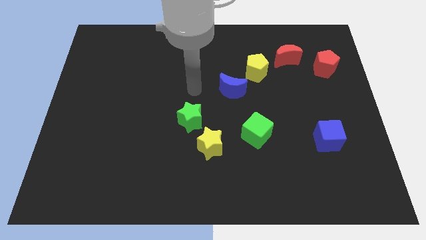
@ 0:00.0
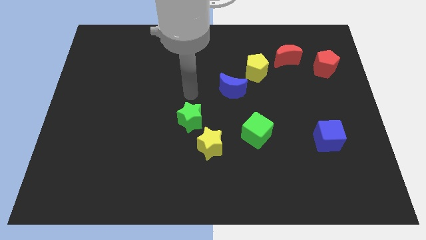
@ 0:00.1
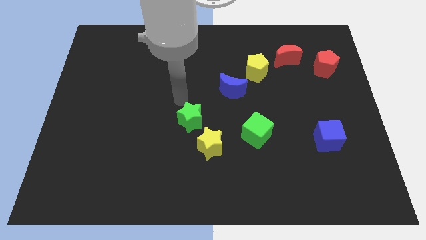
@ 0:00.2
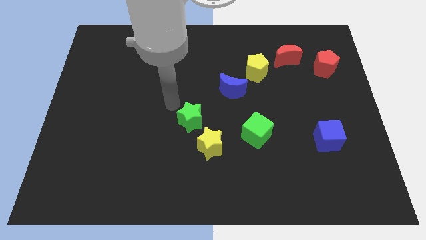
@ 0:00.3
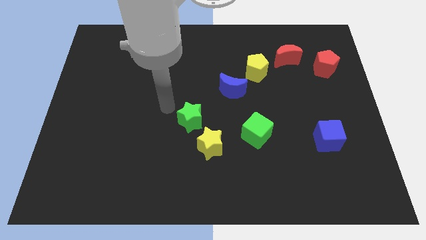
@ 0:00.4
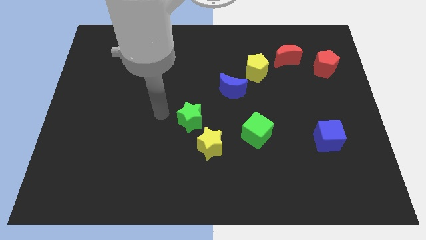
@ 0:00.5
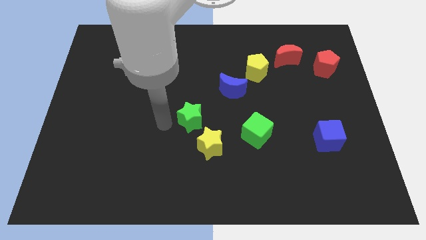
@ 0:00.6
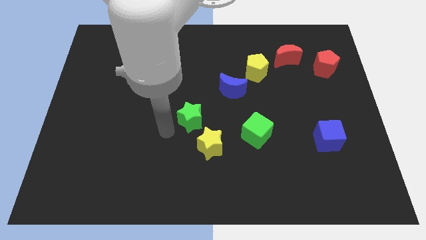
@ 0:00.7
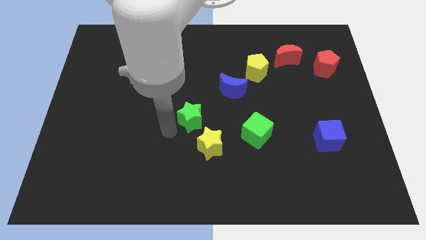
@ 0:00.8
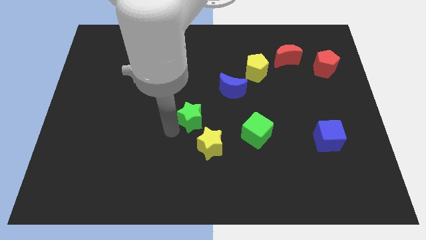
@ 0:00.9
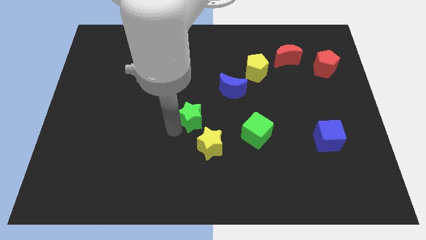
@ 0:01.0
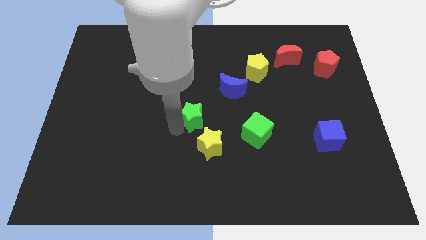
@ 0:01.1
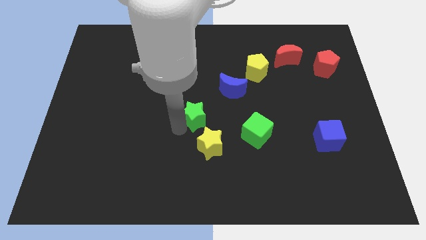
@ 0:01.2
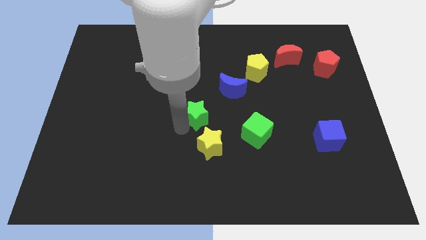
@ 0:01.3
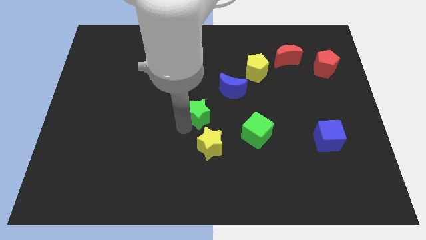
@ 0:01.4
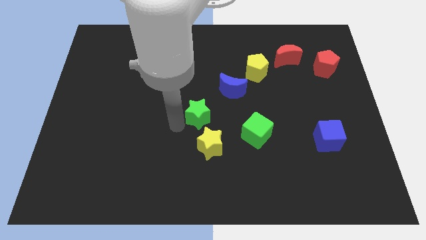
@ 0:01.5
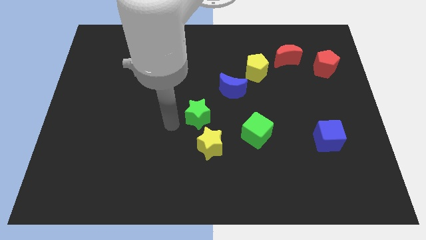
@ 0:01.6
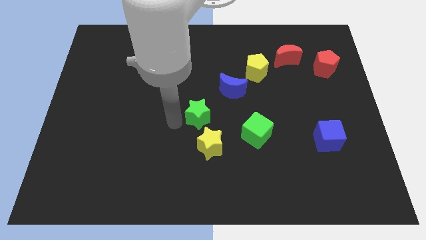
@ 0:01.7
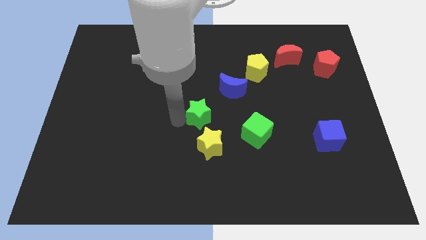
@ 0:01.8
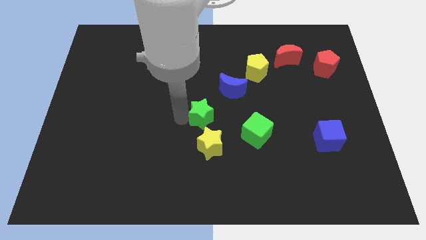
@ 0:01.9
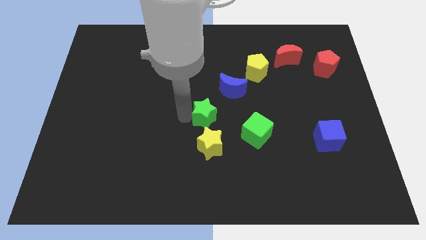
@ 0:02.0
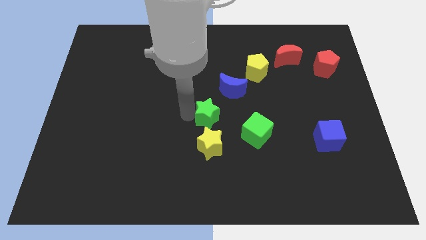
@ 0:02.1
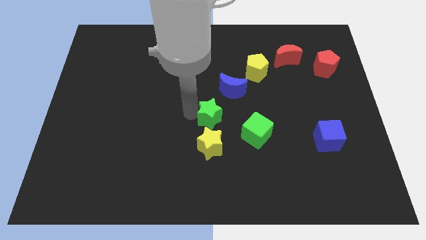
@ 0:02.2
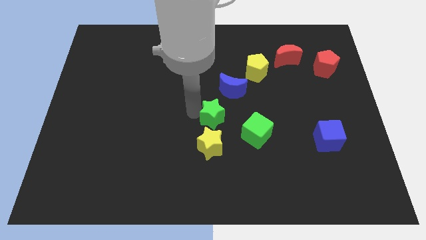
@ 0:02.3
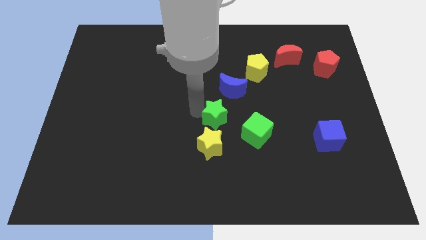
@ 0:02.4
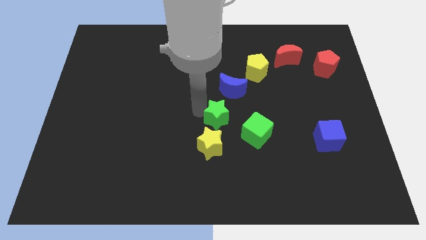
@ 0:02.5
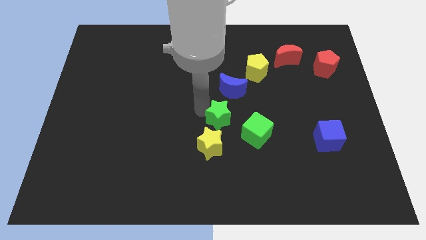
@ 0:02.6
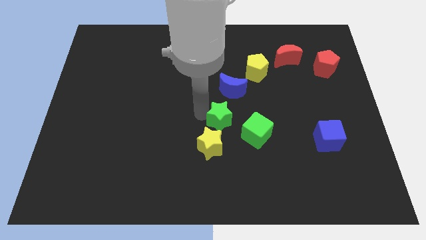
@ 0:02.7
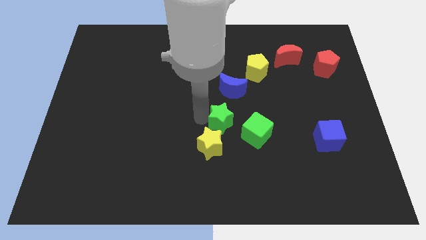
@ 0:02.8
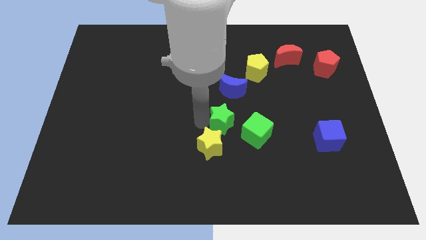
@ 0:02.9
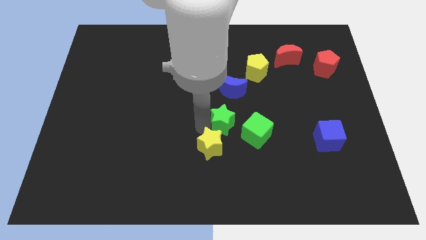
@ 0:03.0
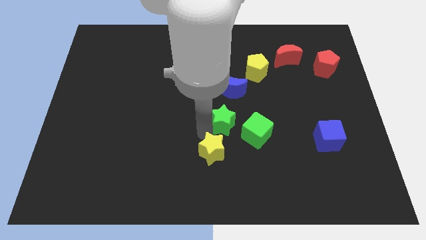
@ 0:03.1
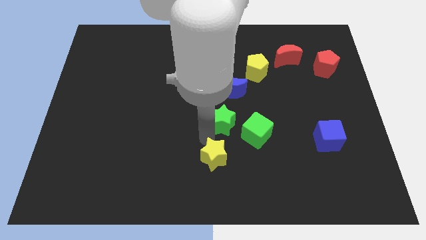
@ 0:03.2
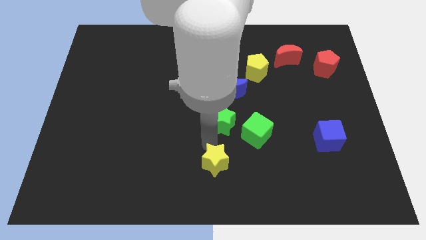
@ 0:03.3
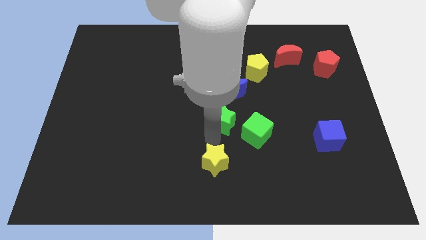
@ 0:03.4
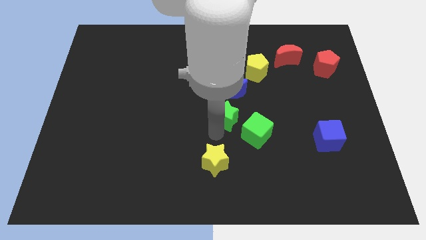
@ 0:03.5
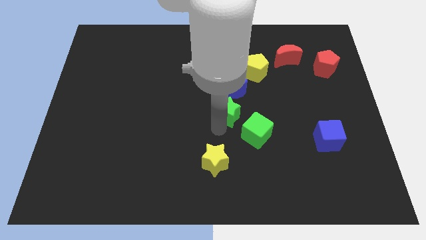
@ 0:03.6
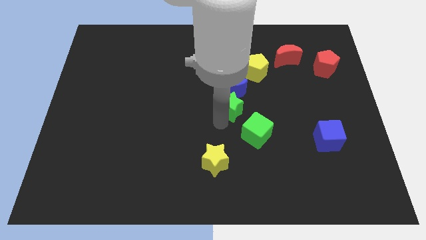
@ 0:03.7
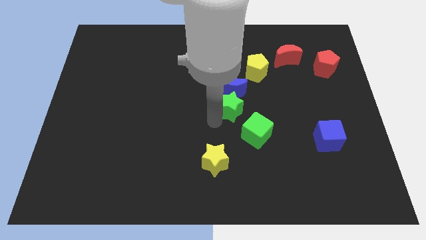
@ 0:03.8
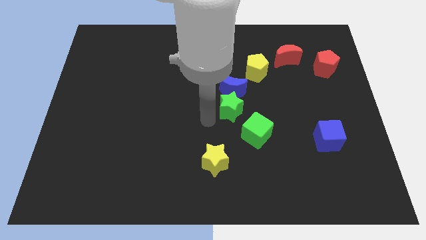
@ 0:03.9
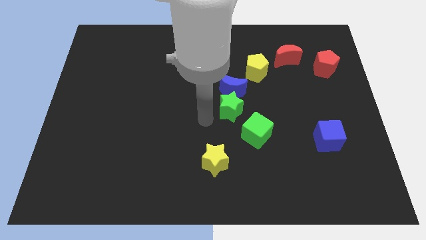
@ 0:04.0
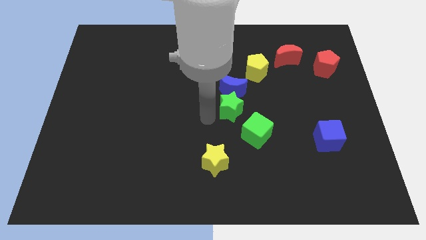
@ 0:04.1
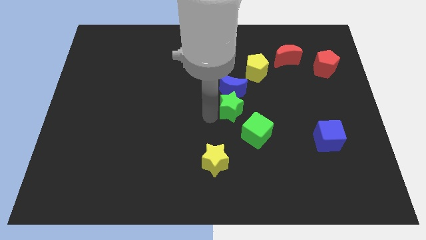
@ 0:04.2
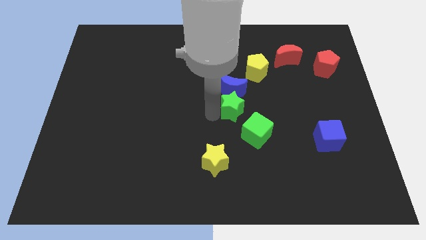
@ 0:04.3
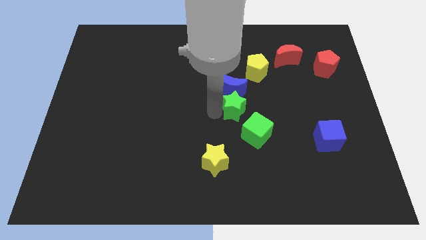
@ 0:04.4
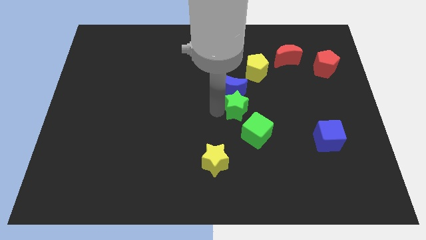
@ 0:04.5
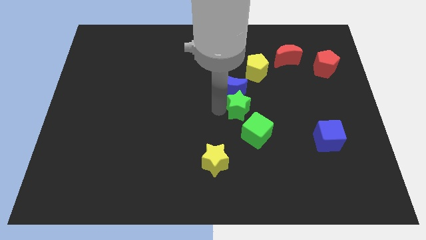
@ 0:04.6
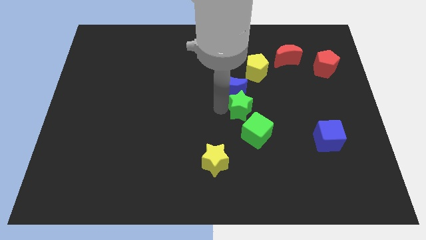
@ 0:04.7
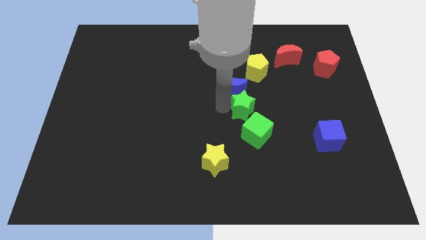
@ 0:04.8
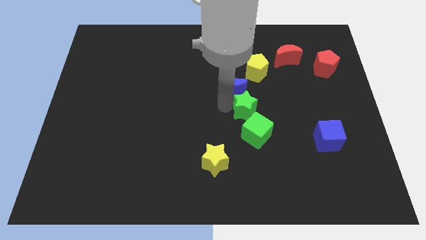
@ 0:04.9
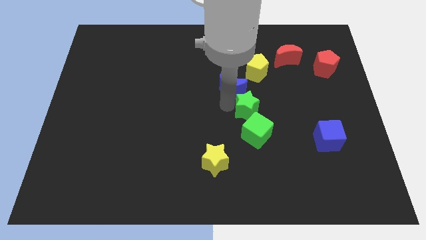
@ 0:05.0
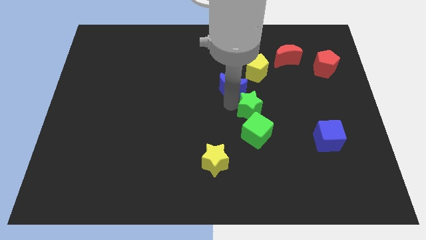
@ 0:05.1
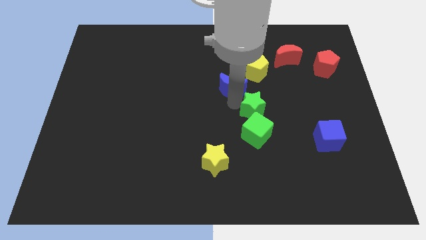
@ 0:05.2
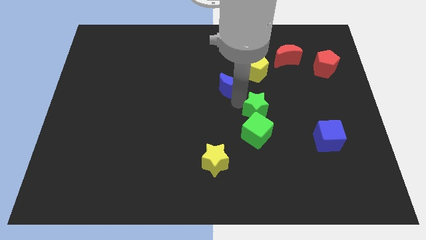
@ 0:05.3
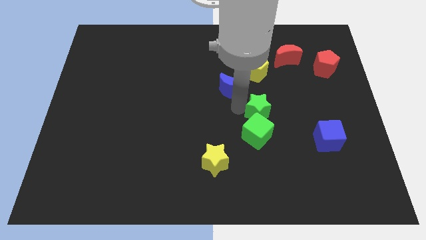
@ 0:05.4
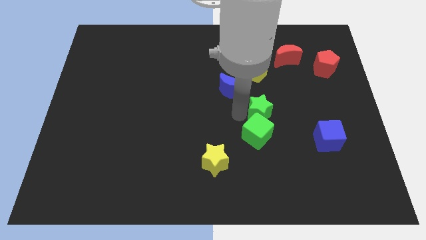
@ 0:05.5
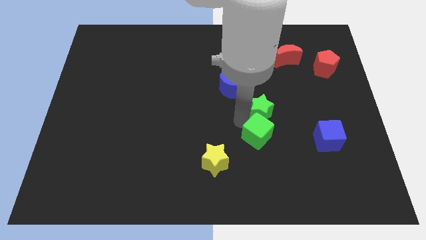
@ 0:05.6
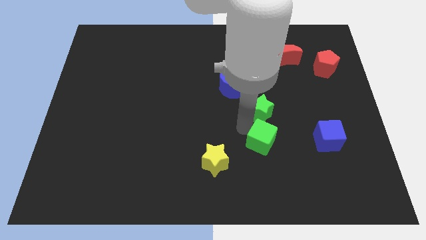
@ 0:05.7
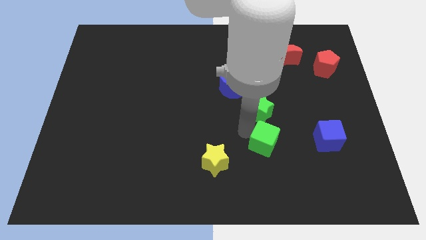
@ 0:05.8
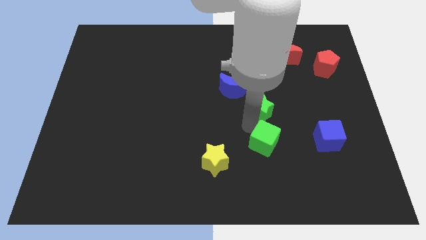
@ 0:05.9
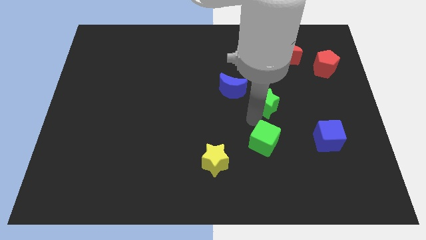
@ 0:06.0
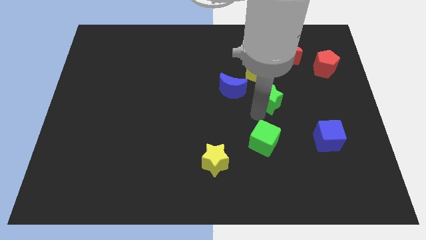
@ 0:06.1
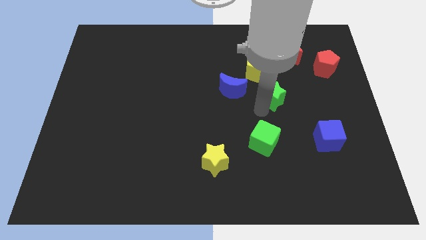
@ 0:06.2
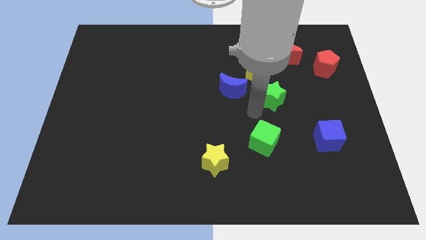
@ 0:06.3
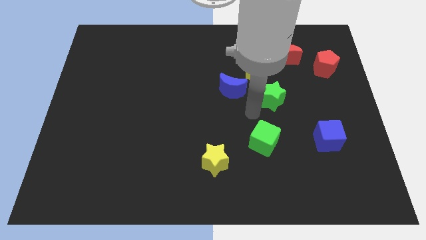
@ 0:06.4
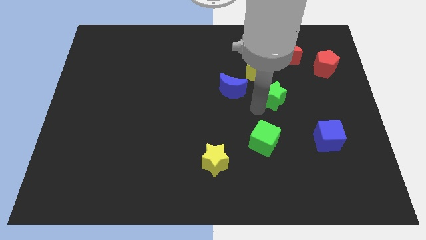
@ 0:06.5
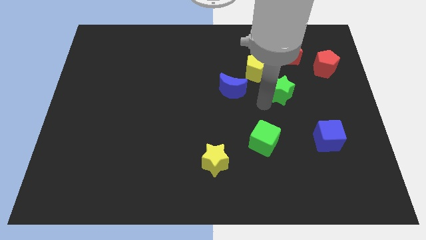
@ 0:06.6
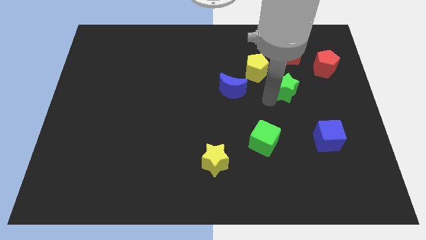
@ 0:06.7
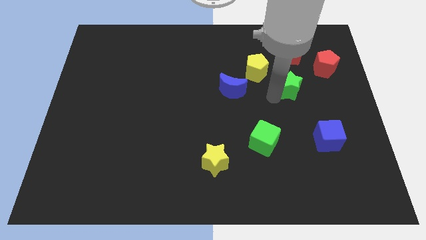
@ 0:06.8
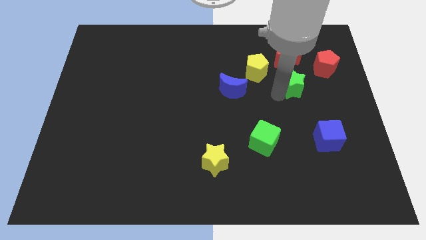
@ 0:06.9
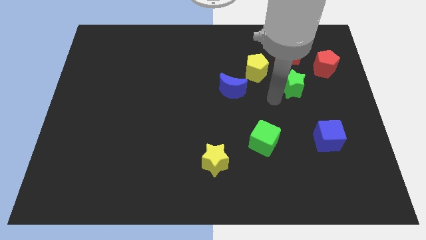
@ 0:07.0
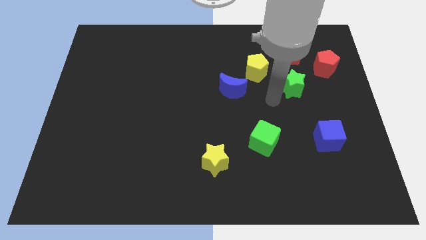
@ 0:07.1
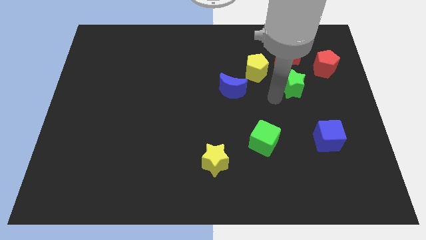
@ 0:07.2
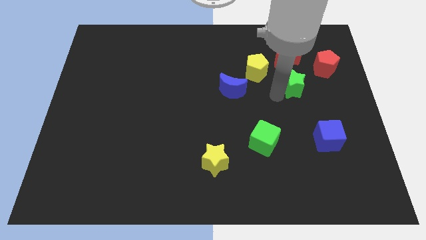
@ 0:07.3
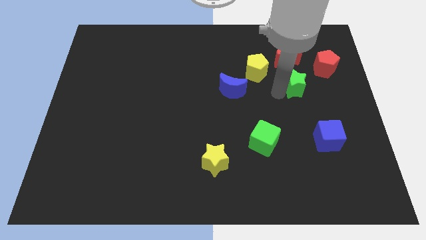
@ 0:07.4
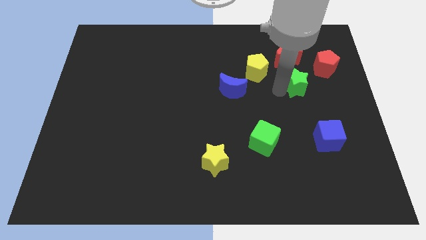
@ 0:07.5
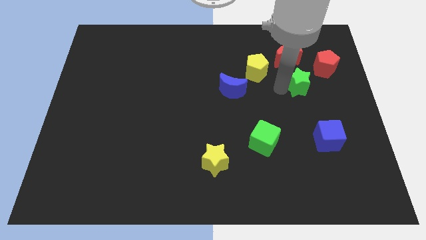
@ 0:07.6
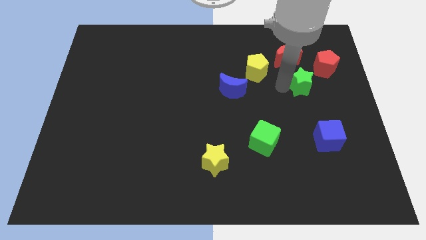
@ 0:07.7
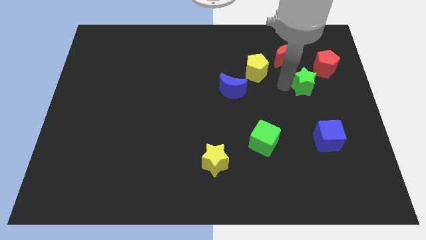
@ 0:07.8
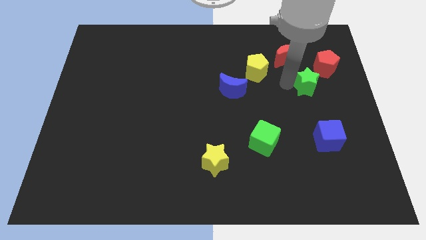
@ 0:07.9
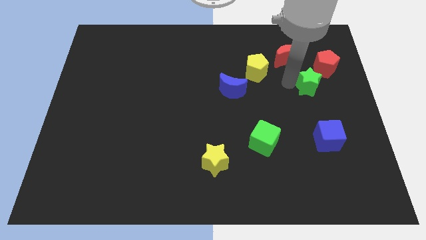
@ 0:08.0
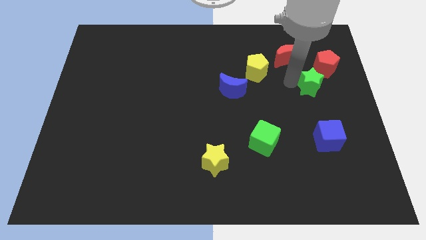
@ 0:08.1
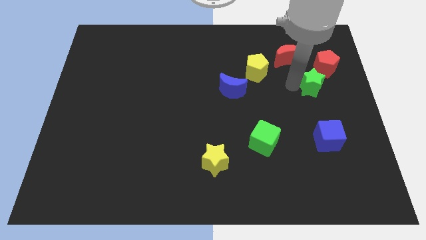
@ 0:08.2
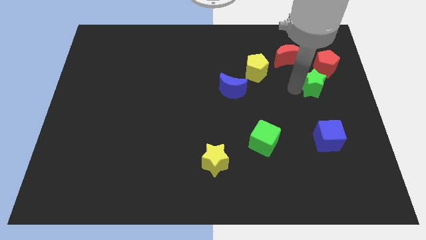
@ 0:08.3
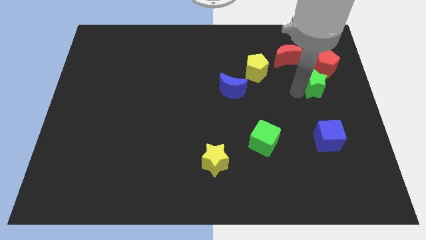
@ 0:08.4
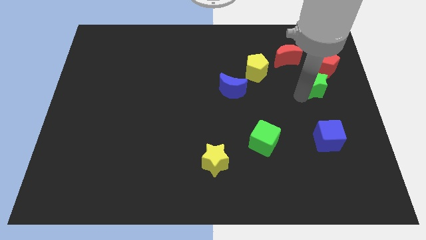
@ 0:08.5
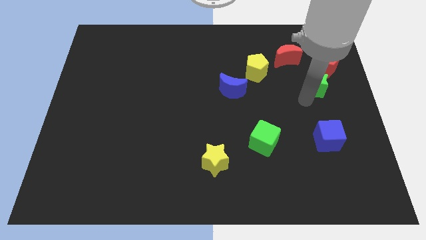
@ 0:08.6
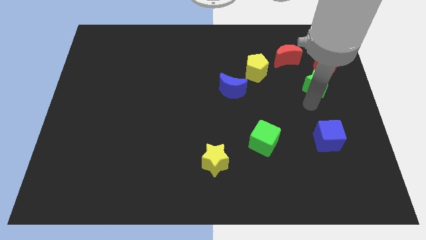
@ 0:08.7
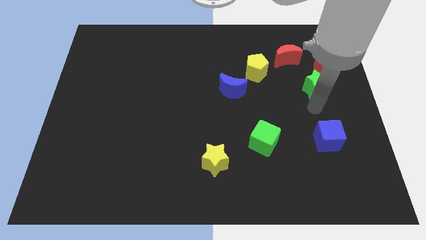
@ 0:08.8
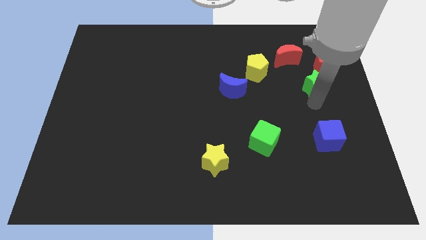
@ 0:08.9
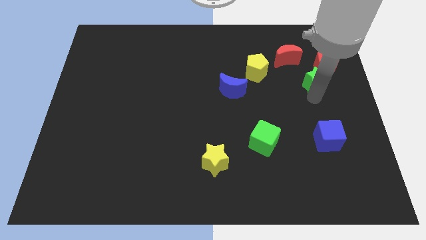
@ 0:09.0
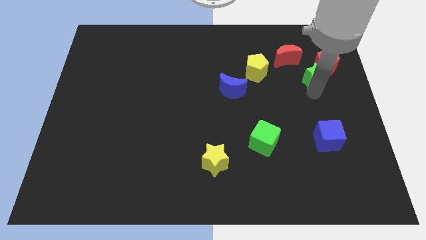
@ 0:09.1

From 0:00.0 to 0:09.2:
put the green star to the red pentagon
